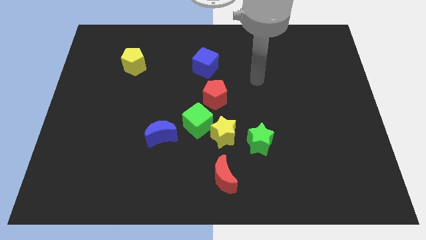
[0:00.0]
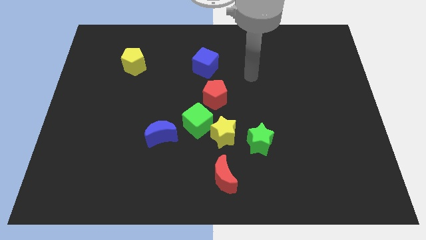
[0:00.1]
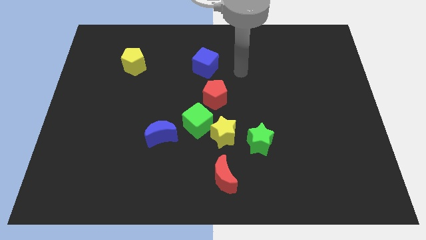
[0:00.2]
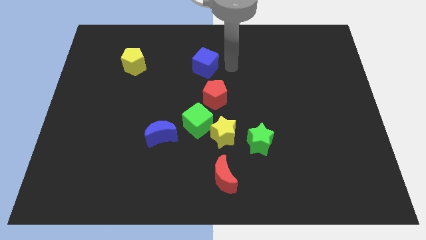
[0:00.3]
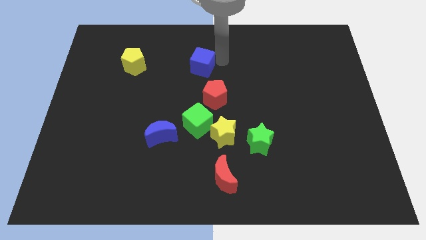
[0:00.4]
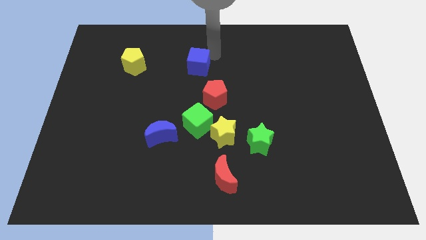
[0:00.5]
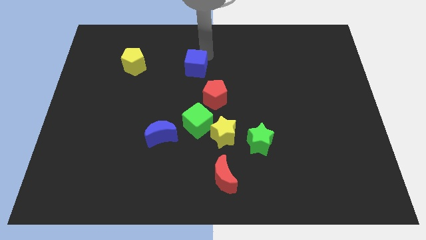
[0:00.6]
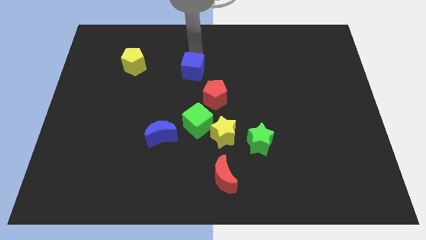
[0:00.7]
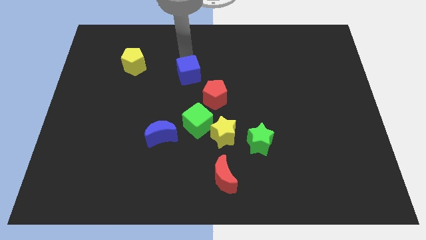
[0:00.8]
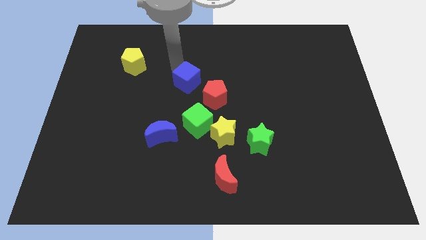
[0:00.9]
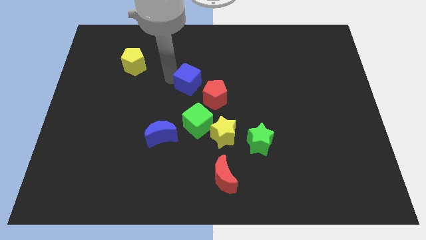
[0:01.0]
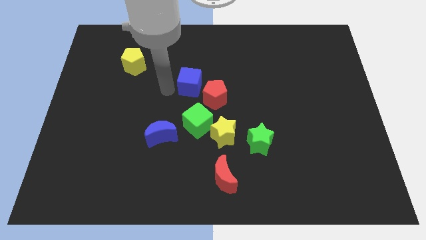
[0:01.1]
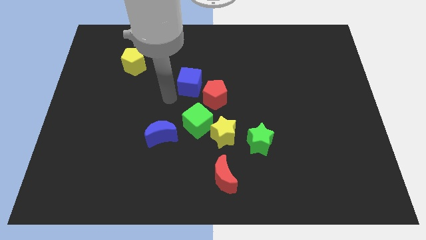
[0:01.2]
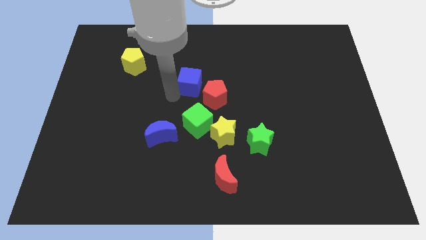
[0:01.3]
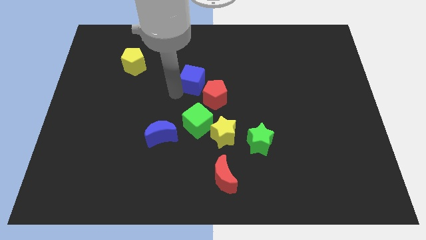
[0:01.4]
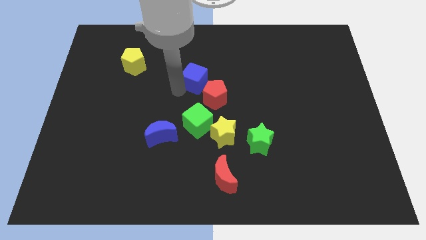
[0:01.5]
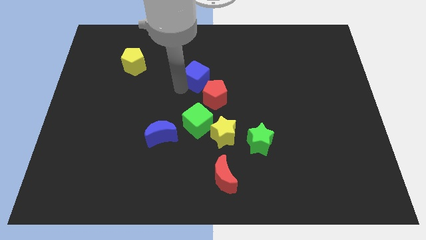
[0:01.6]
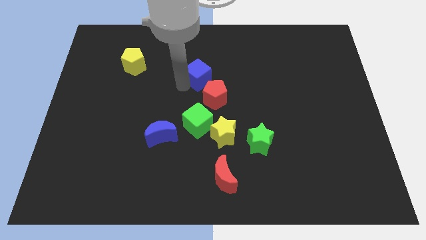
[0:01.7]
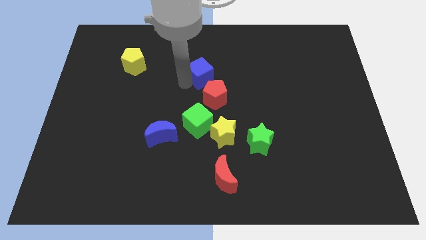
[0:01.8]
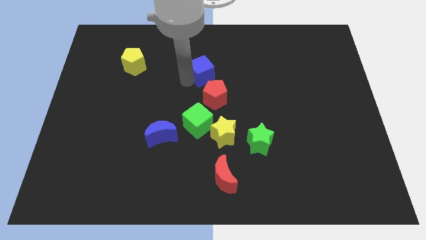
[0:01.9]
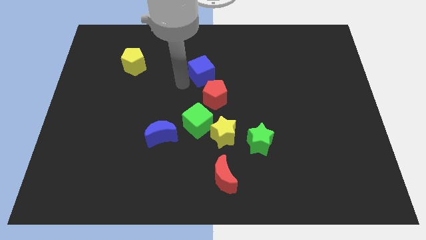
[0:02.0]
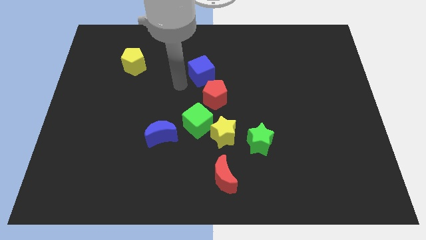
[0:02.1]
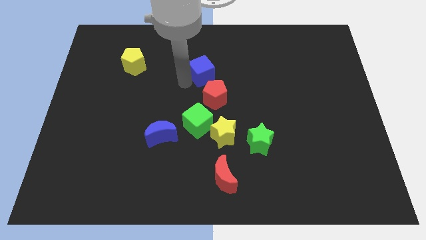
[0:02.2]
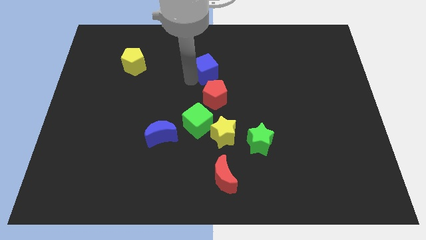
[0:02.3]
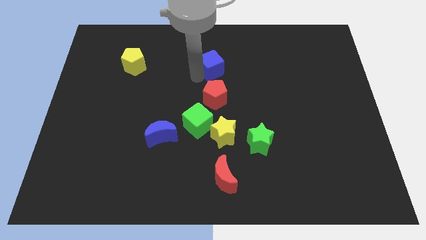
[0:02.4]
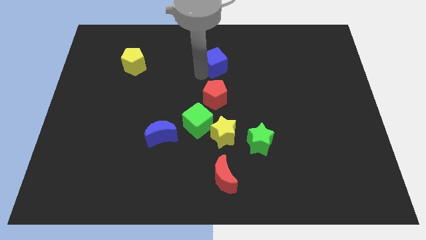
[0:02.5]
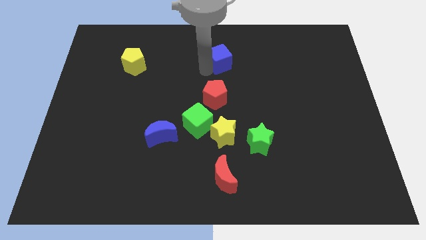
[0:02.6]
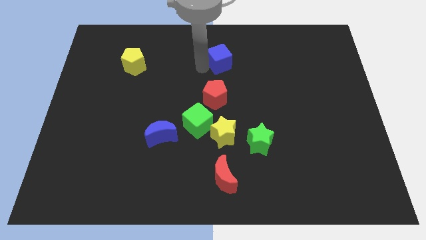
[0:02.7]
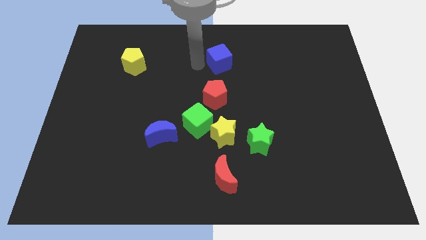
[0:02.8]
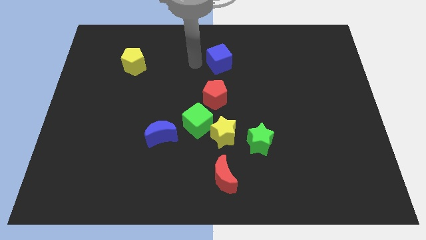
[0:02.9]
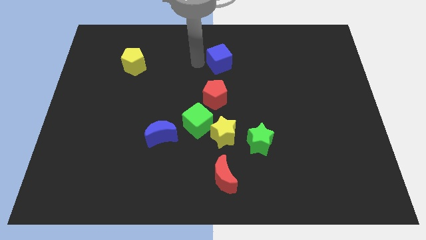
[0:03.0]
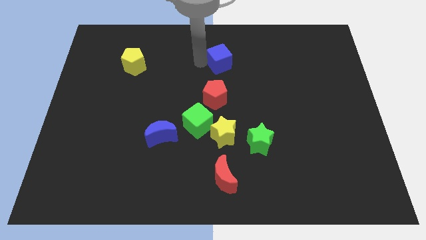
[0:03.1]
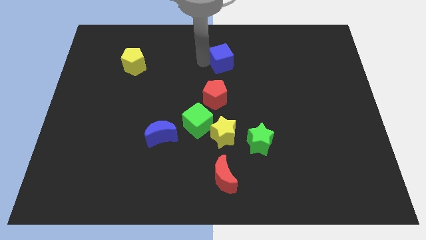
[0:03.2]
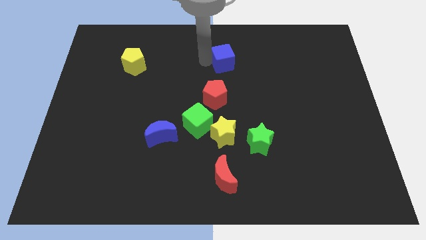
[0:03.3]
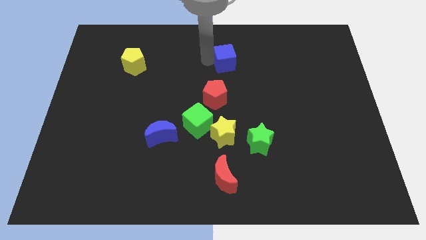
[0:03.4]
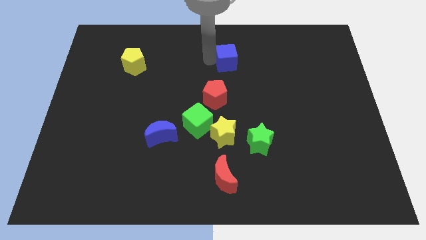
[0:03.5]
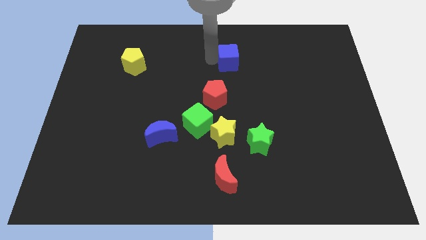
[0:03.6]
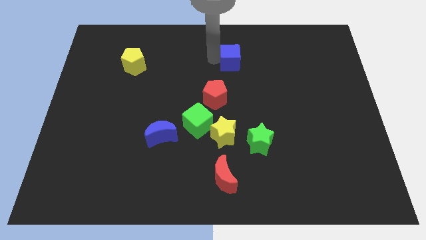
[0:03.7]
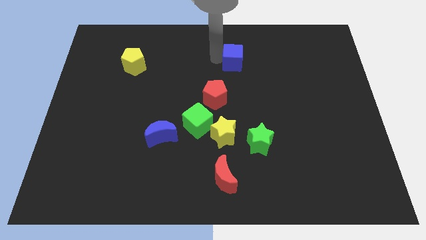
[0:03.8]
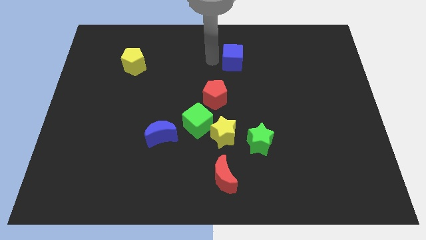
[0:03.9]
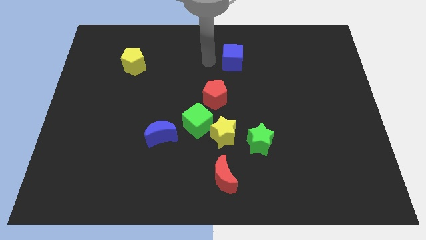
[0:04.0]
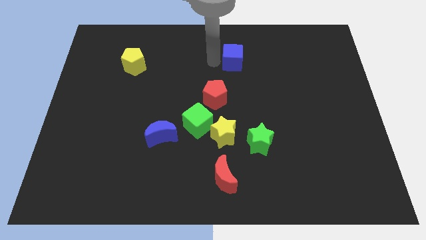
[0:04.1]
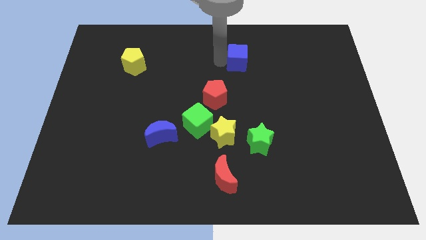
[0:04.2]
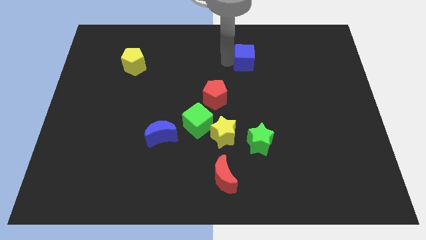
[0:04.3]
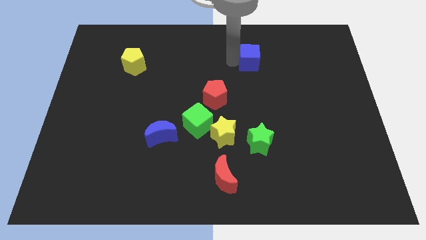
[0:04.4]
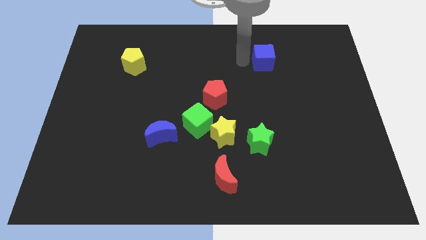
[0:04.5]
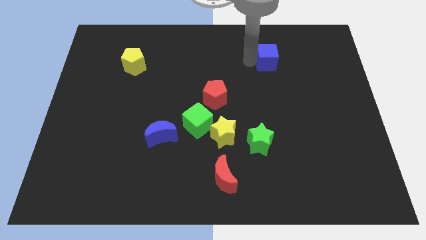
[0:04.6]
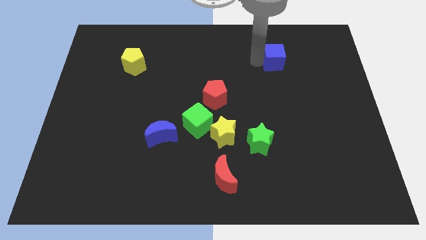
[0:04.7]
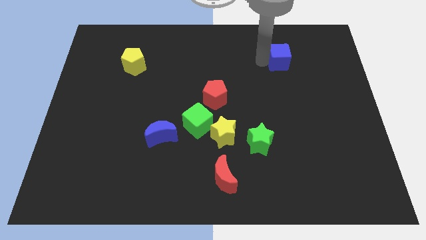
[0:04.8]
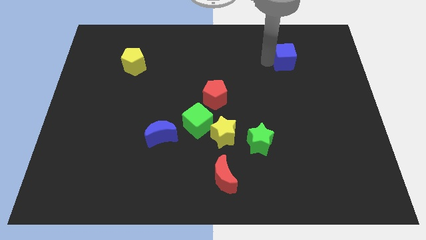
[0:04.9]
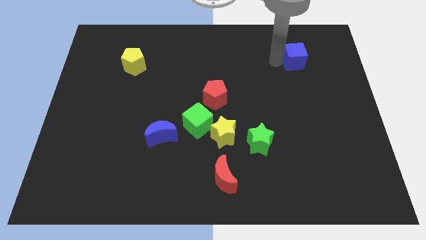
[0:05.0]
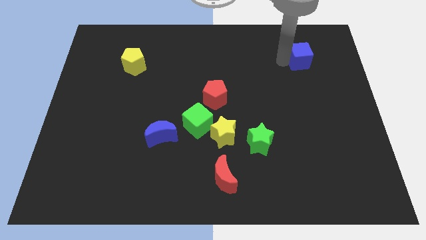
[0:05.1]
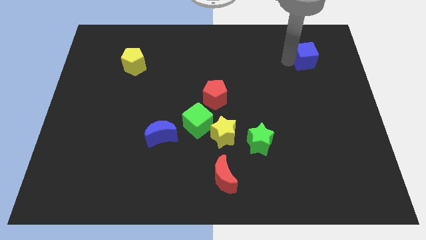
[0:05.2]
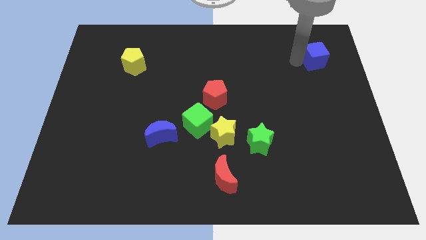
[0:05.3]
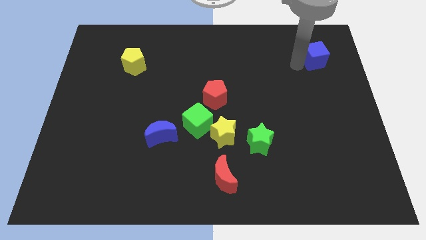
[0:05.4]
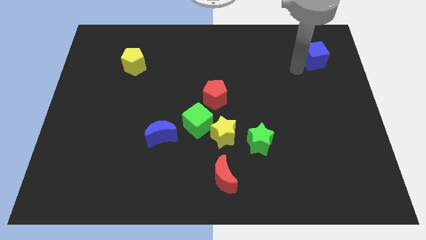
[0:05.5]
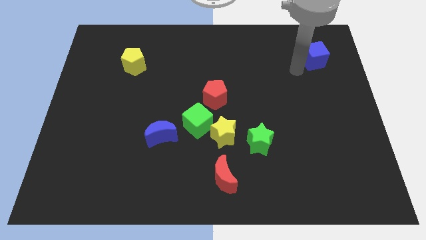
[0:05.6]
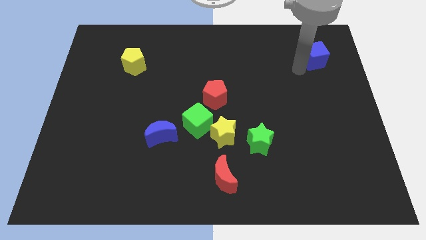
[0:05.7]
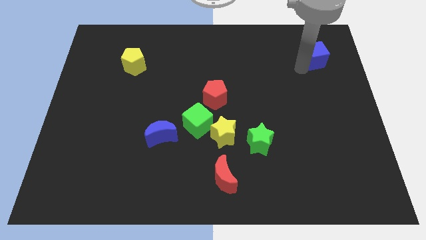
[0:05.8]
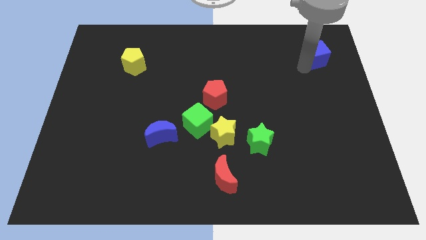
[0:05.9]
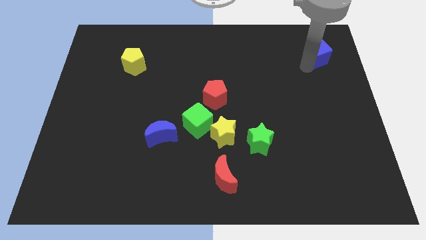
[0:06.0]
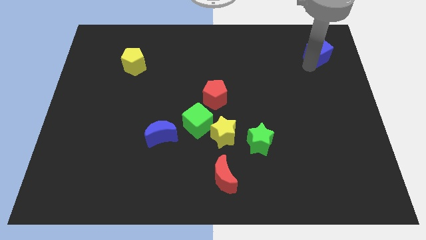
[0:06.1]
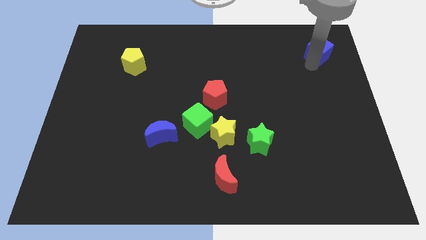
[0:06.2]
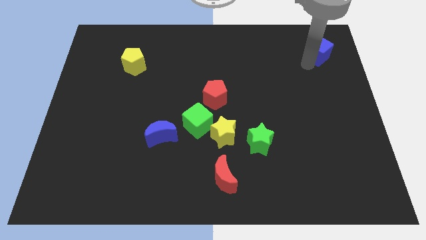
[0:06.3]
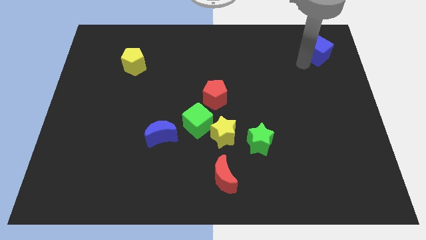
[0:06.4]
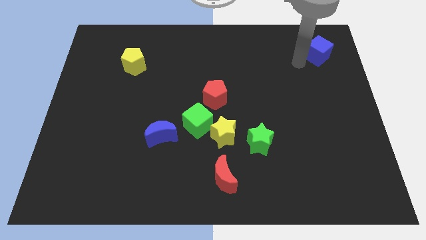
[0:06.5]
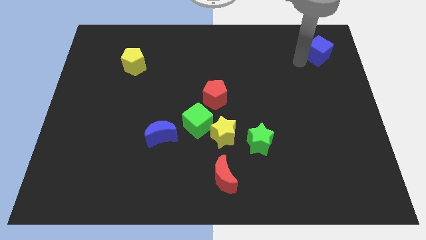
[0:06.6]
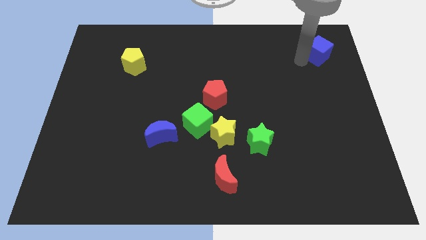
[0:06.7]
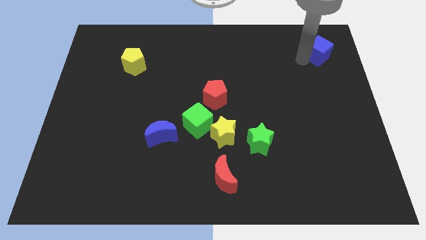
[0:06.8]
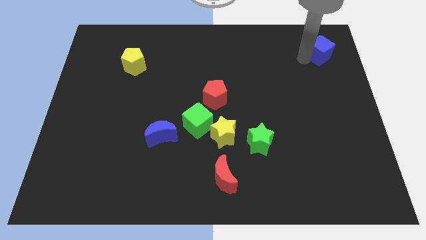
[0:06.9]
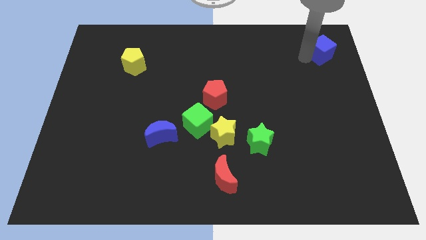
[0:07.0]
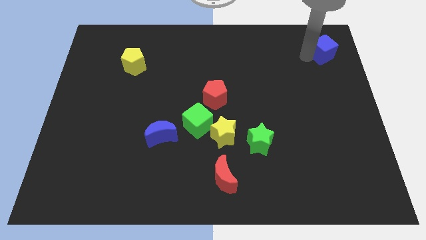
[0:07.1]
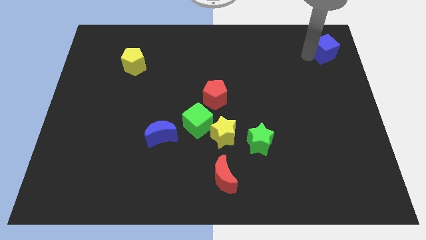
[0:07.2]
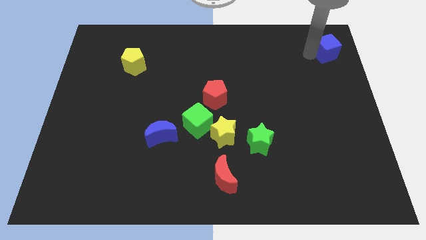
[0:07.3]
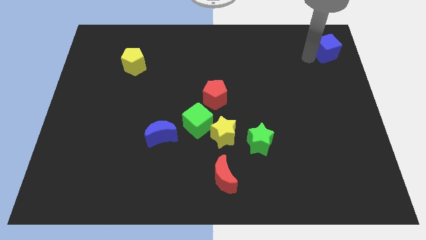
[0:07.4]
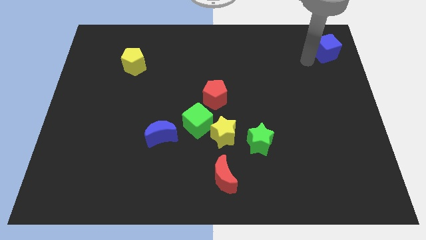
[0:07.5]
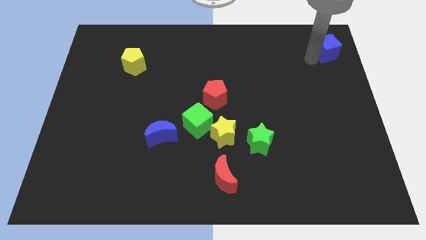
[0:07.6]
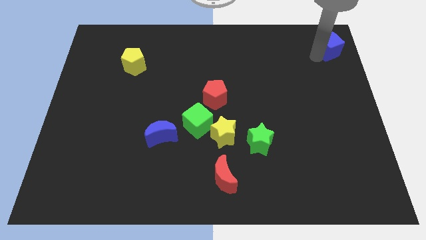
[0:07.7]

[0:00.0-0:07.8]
slide the blue cube to the upper right corner
